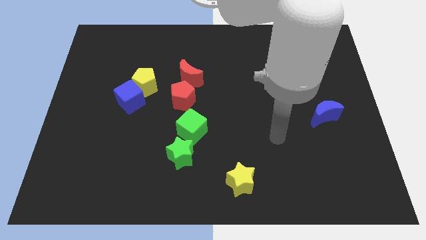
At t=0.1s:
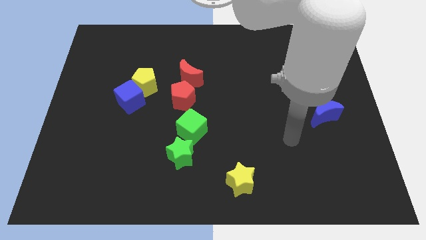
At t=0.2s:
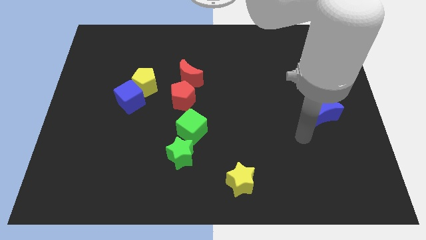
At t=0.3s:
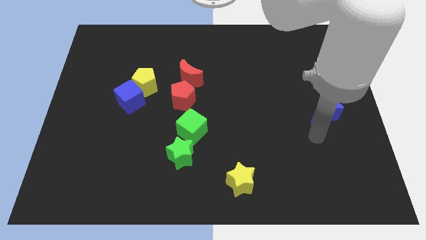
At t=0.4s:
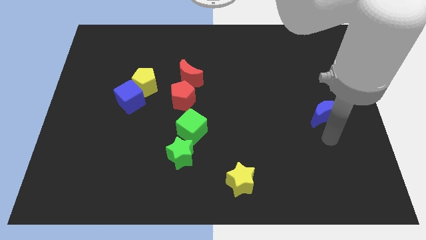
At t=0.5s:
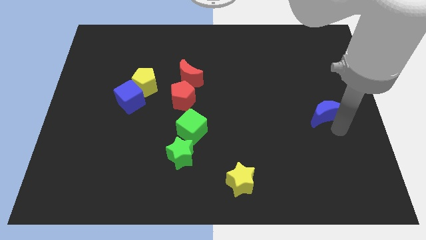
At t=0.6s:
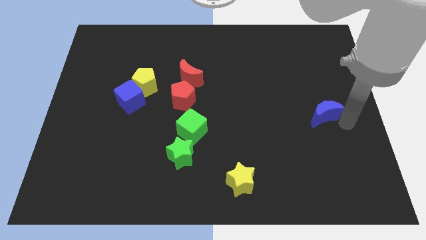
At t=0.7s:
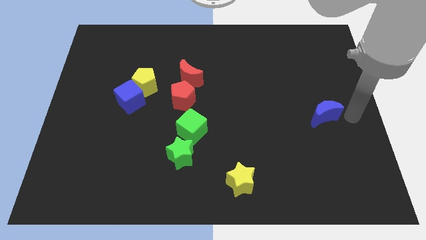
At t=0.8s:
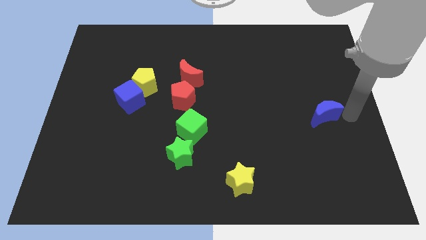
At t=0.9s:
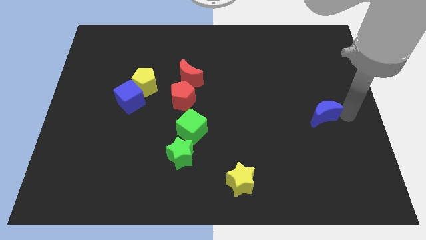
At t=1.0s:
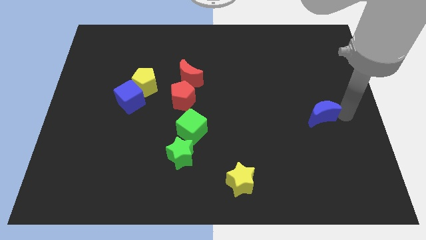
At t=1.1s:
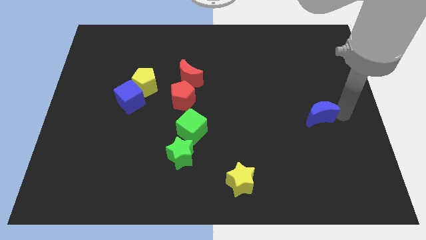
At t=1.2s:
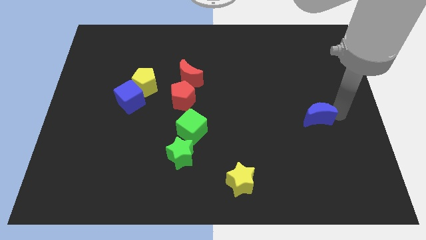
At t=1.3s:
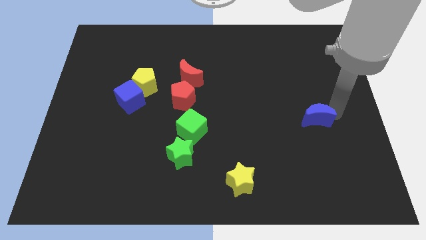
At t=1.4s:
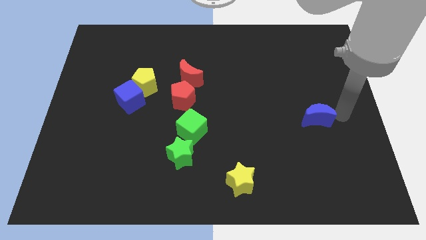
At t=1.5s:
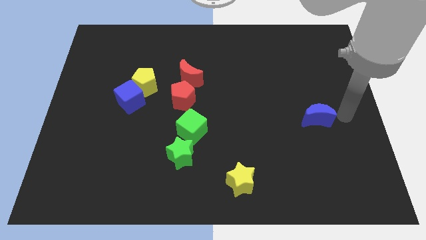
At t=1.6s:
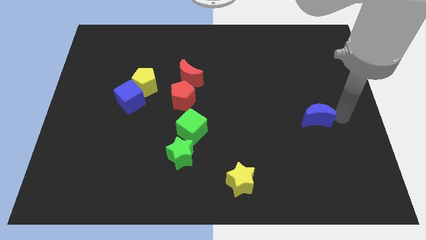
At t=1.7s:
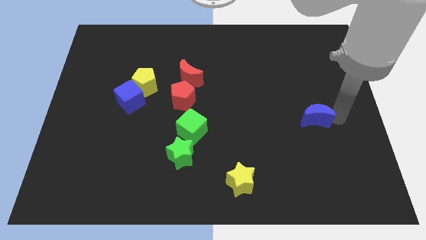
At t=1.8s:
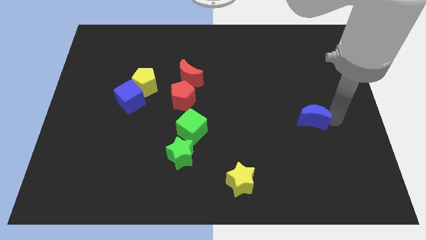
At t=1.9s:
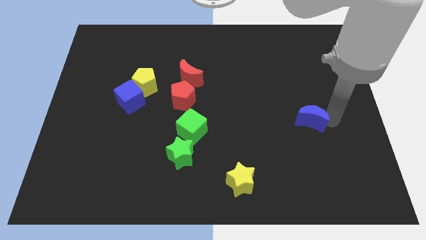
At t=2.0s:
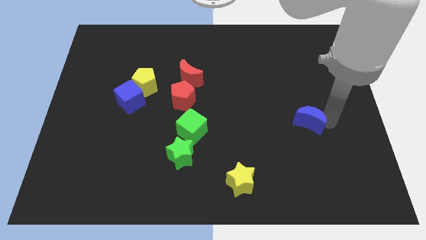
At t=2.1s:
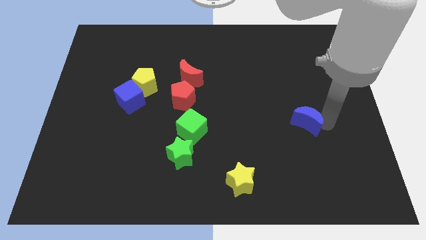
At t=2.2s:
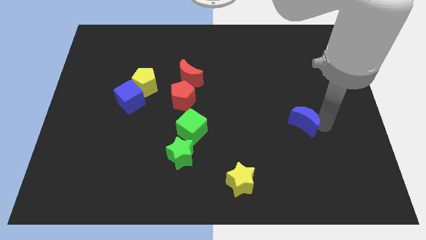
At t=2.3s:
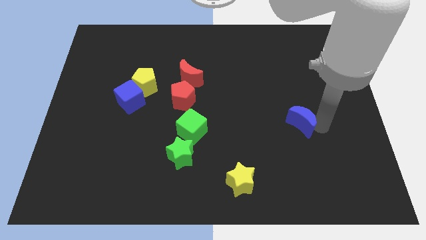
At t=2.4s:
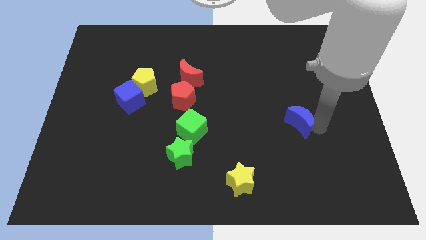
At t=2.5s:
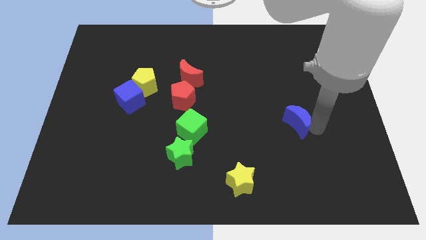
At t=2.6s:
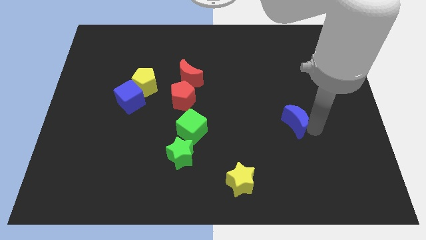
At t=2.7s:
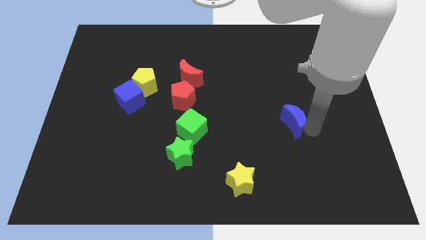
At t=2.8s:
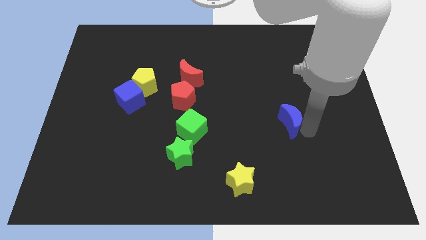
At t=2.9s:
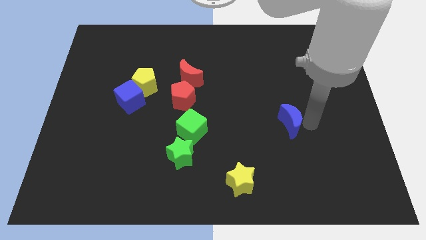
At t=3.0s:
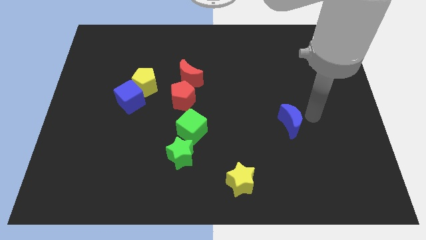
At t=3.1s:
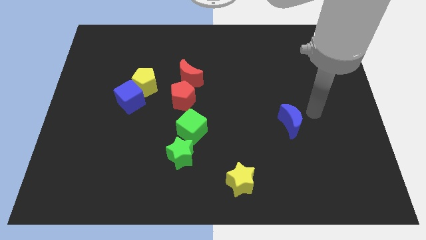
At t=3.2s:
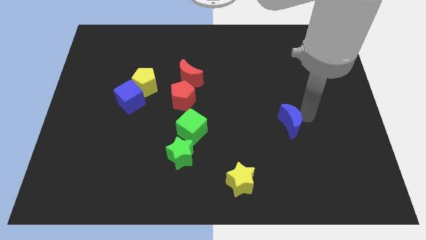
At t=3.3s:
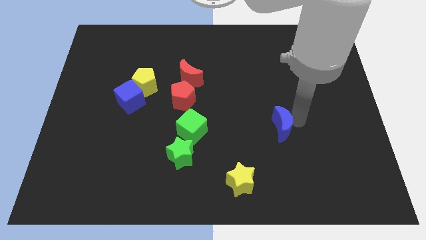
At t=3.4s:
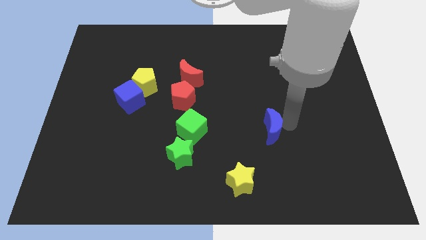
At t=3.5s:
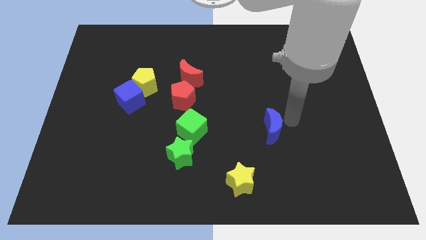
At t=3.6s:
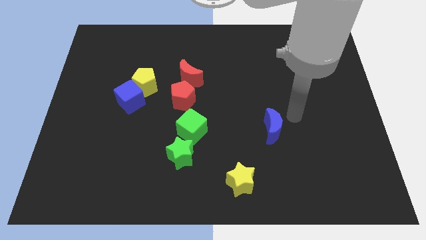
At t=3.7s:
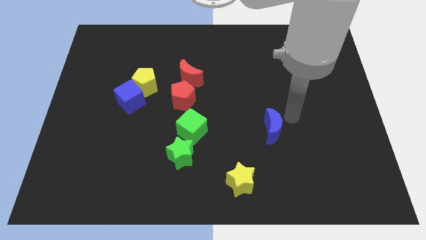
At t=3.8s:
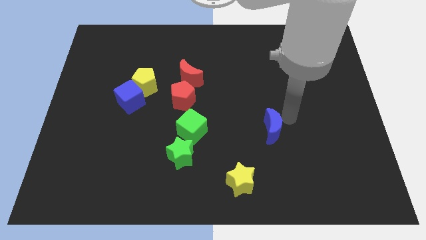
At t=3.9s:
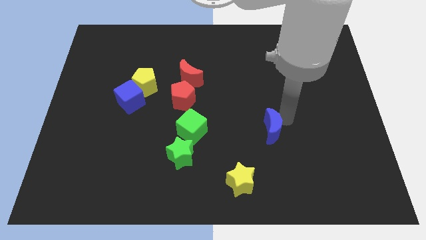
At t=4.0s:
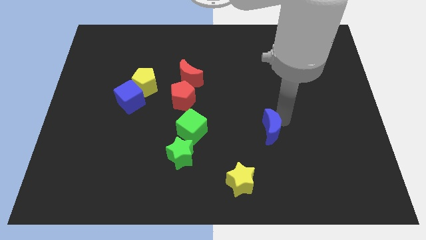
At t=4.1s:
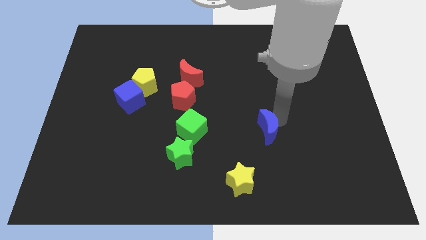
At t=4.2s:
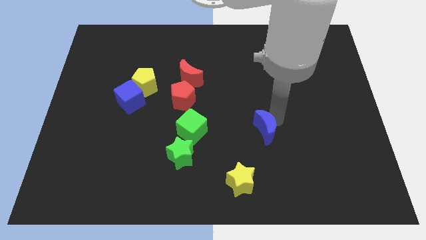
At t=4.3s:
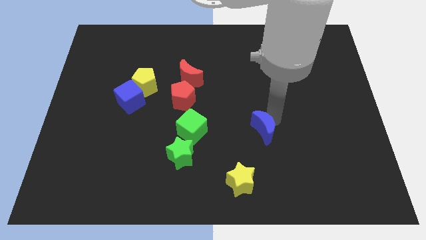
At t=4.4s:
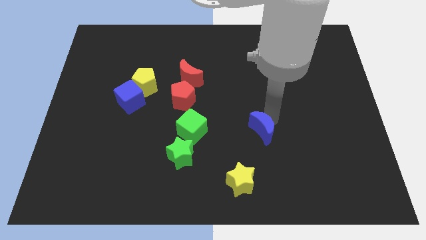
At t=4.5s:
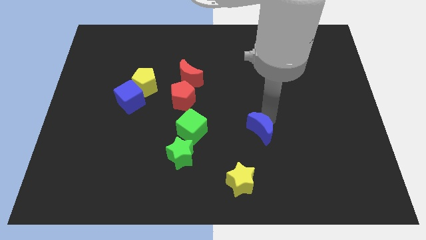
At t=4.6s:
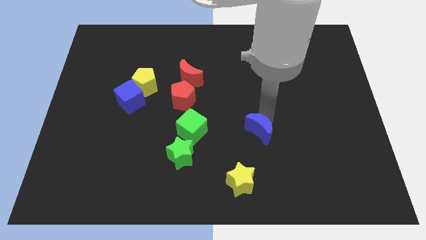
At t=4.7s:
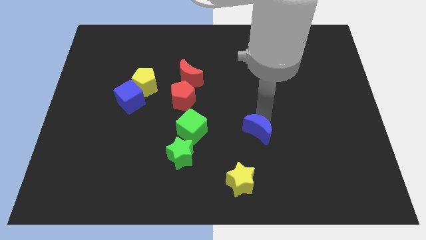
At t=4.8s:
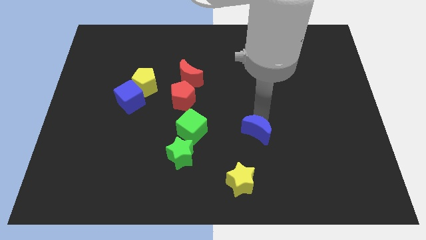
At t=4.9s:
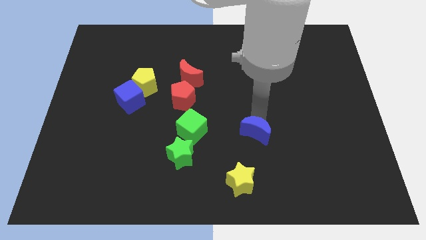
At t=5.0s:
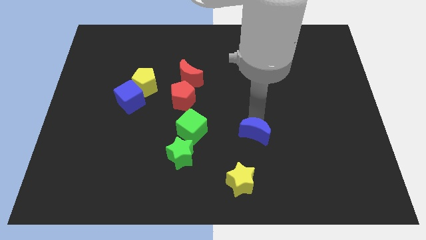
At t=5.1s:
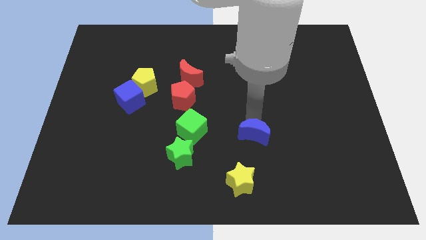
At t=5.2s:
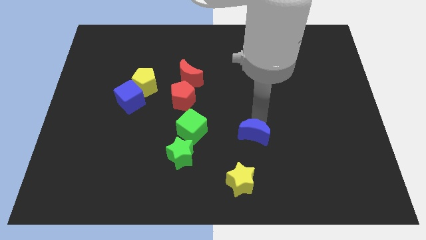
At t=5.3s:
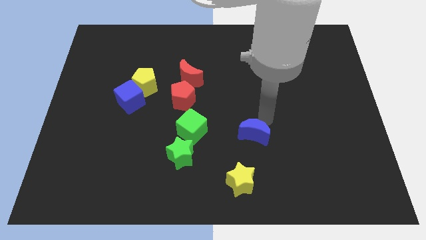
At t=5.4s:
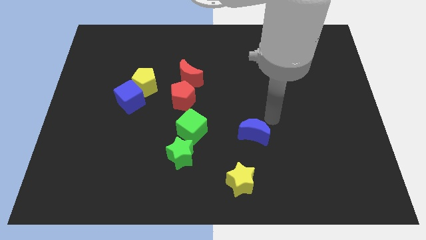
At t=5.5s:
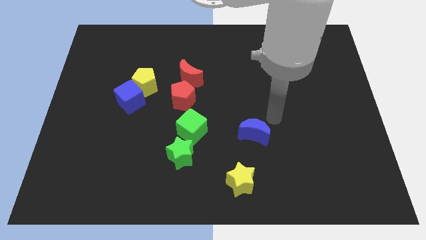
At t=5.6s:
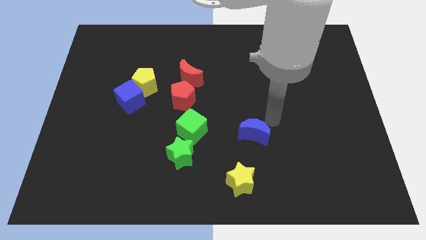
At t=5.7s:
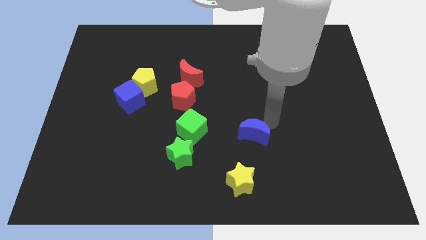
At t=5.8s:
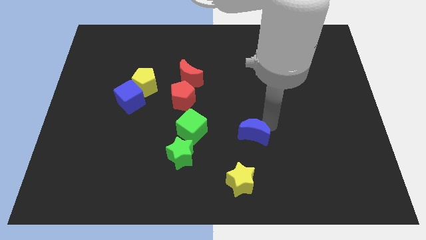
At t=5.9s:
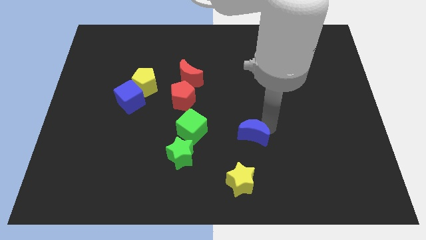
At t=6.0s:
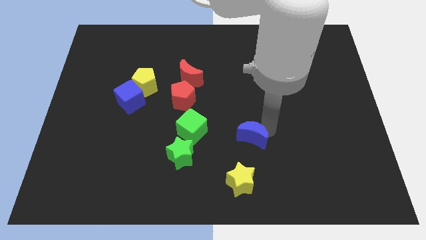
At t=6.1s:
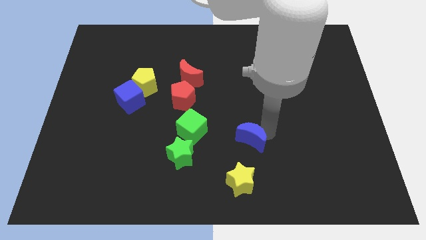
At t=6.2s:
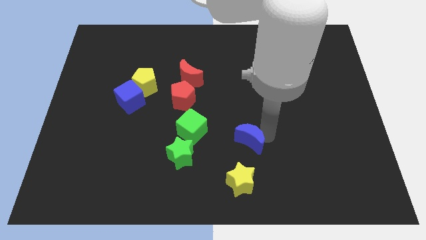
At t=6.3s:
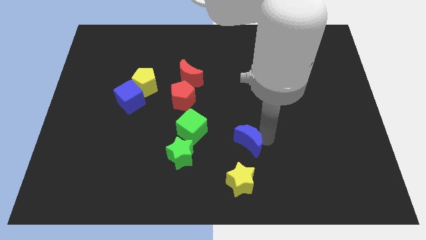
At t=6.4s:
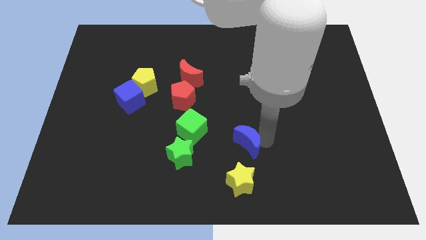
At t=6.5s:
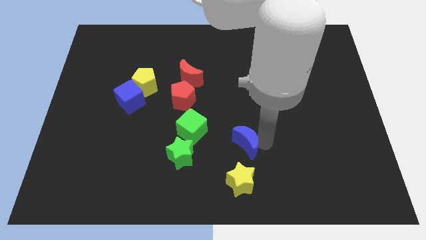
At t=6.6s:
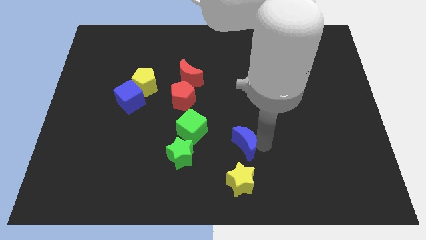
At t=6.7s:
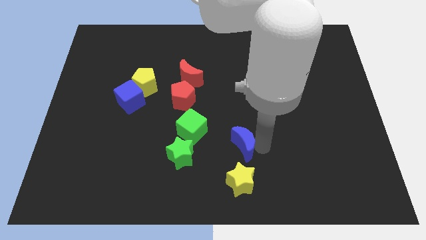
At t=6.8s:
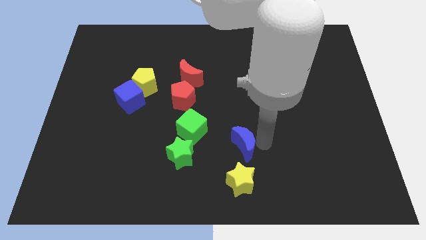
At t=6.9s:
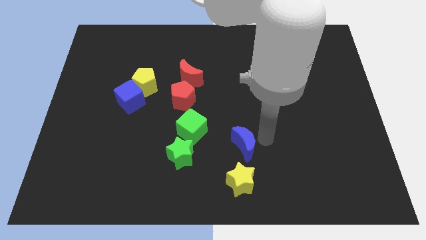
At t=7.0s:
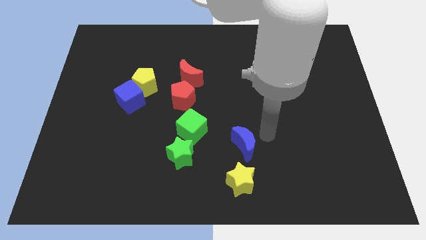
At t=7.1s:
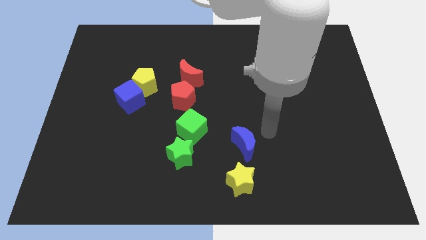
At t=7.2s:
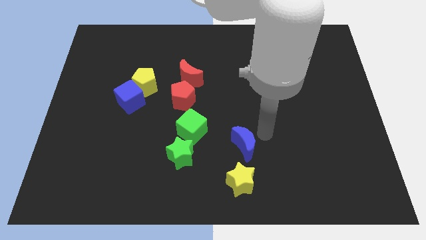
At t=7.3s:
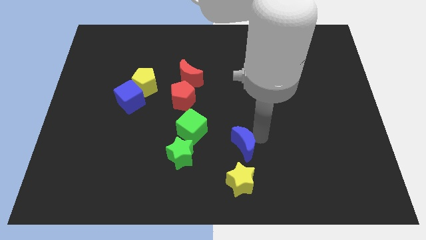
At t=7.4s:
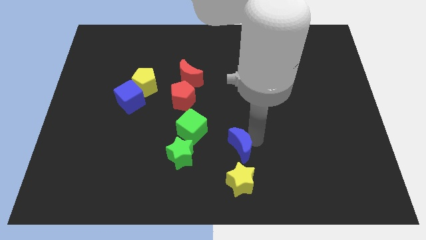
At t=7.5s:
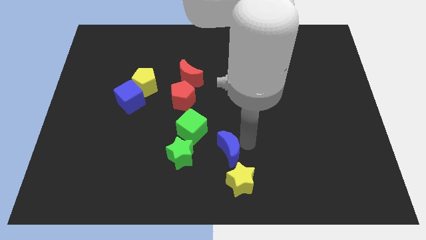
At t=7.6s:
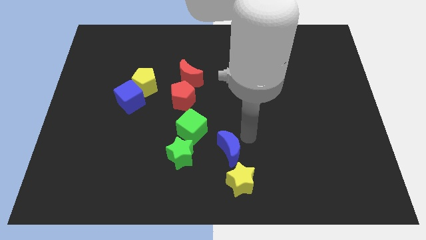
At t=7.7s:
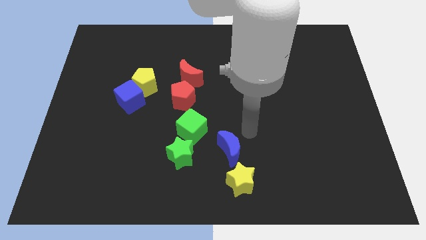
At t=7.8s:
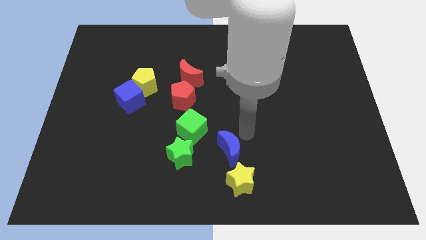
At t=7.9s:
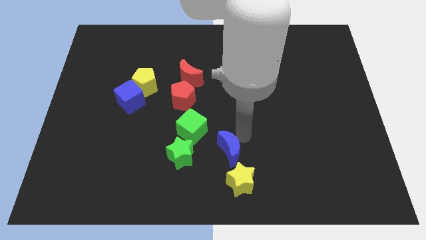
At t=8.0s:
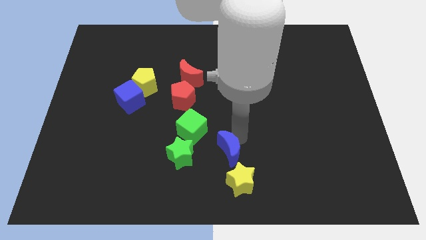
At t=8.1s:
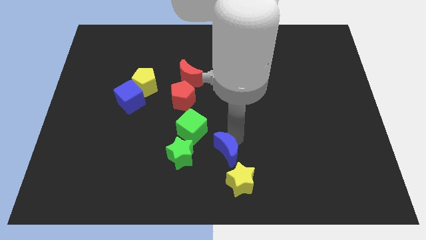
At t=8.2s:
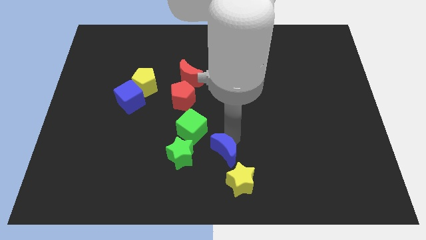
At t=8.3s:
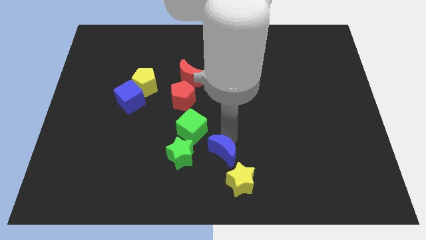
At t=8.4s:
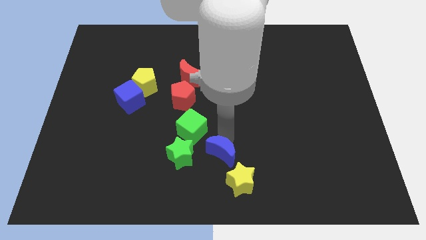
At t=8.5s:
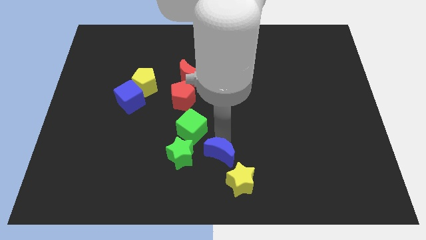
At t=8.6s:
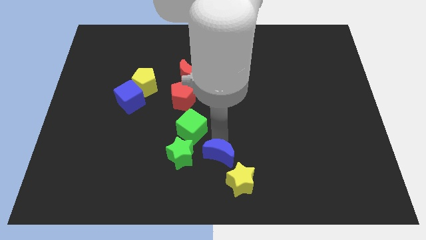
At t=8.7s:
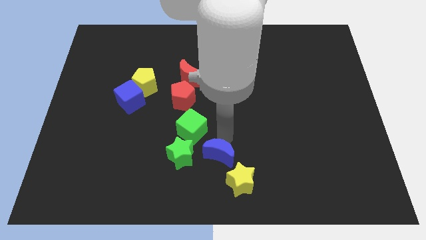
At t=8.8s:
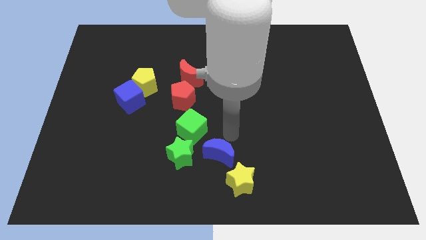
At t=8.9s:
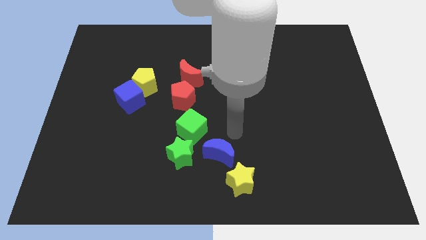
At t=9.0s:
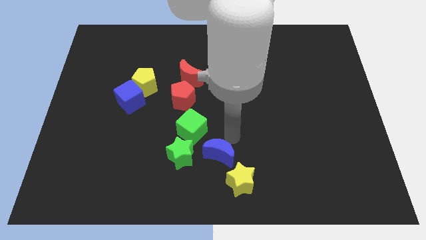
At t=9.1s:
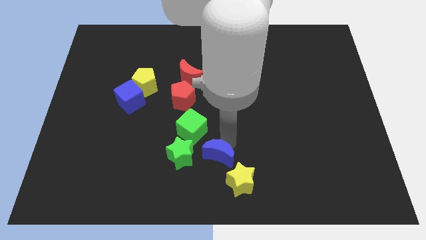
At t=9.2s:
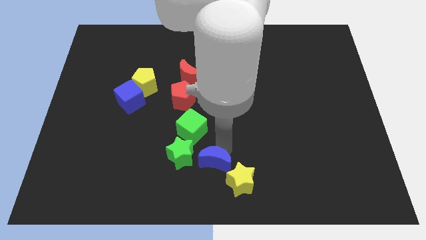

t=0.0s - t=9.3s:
push the blue moon diagonally down and to the right of the green star
